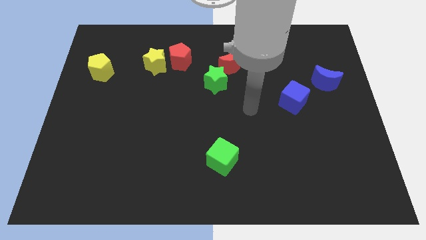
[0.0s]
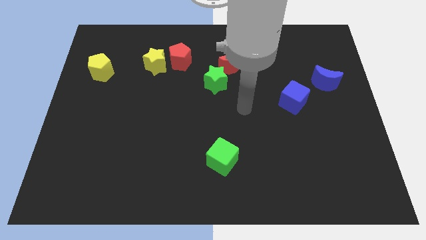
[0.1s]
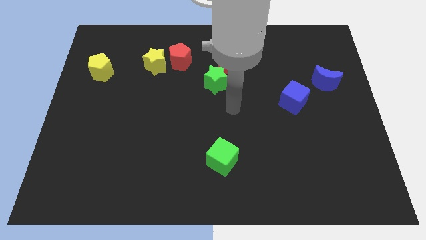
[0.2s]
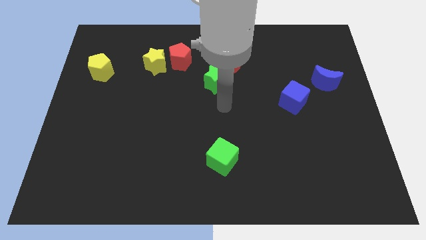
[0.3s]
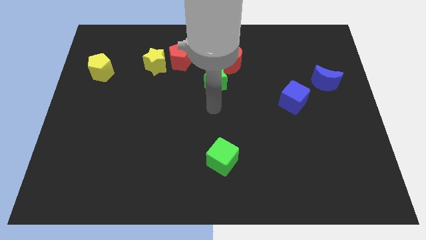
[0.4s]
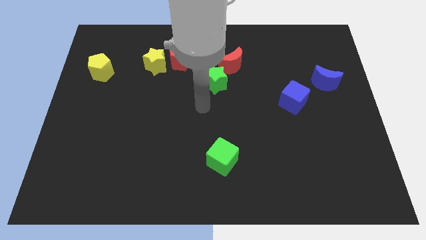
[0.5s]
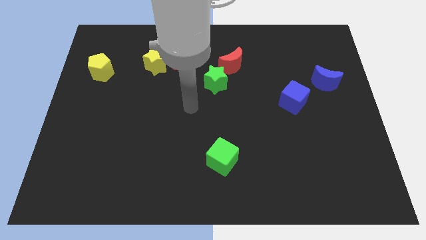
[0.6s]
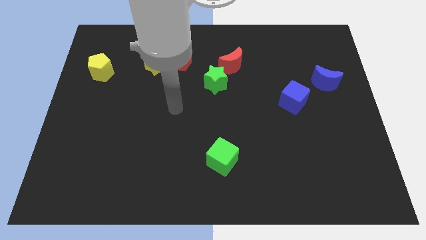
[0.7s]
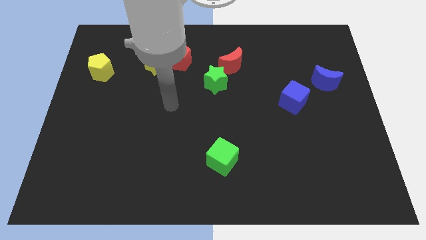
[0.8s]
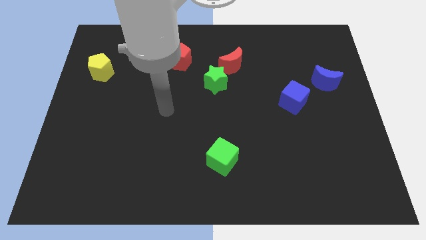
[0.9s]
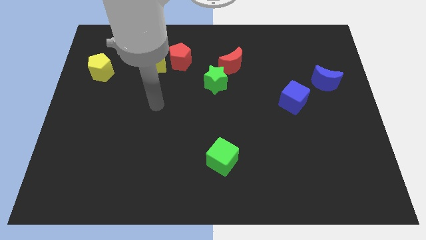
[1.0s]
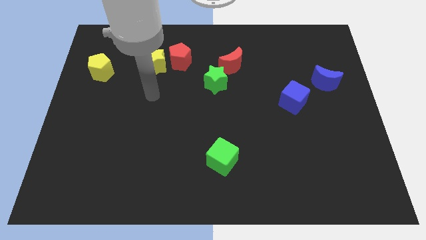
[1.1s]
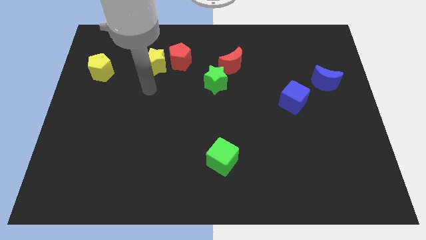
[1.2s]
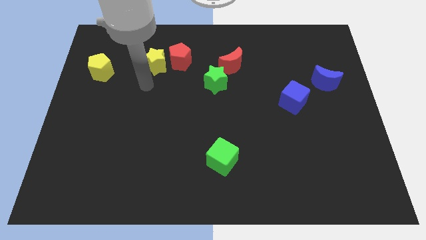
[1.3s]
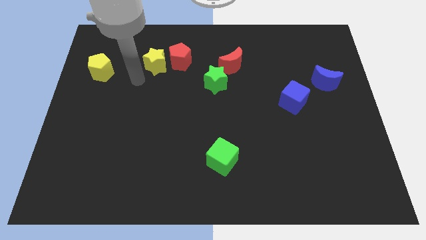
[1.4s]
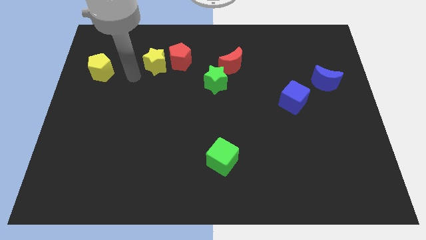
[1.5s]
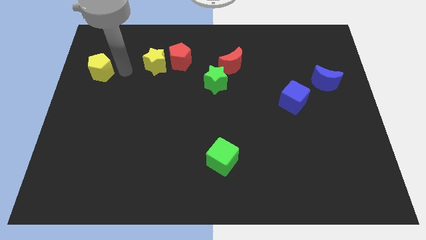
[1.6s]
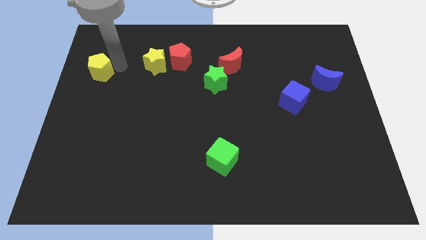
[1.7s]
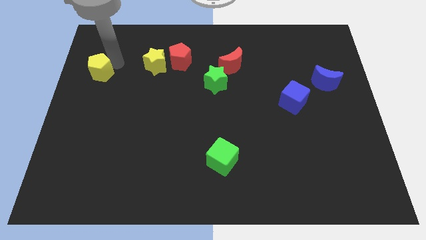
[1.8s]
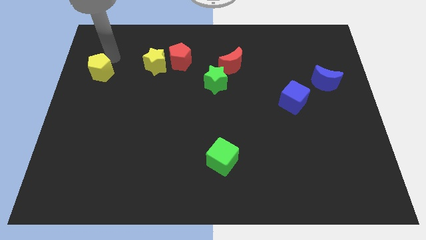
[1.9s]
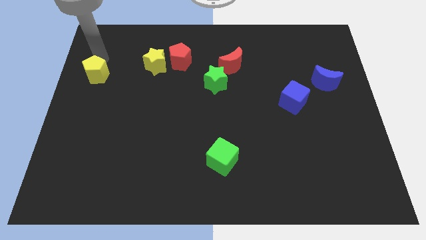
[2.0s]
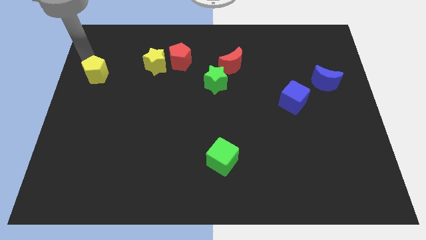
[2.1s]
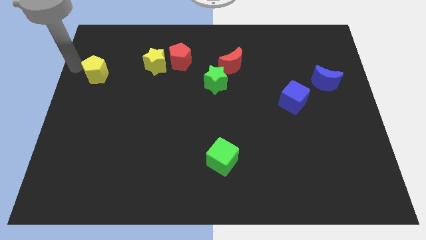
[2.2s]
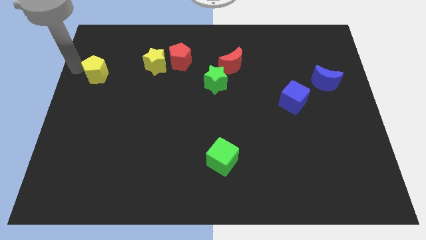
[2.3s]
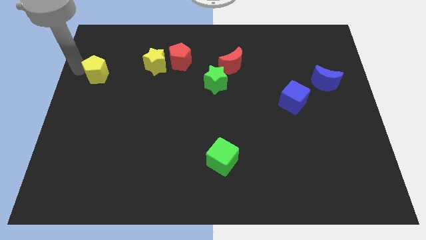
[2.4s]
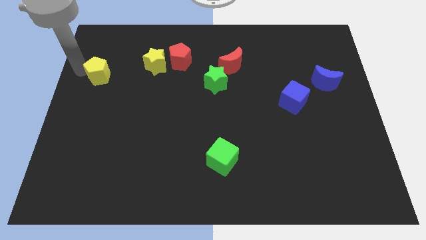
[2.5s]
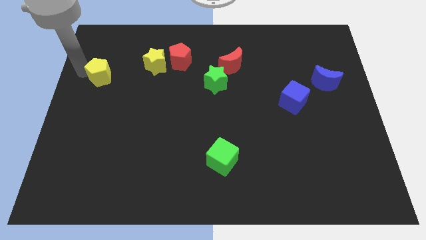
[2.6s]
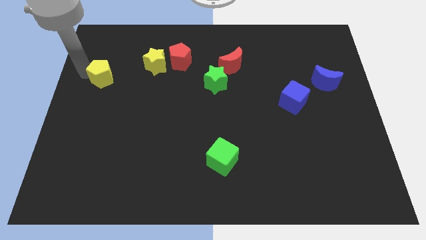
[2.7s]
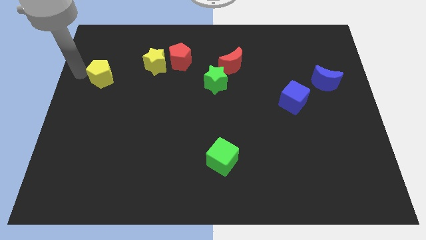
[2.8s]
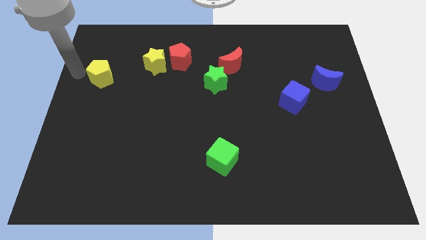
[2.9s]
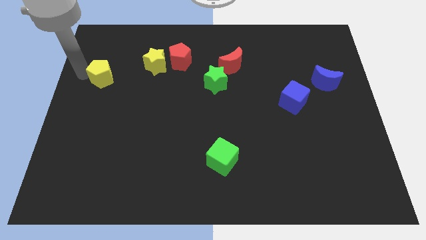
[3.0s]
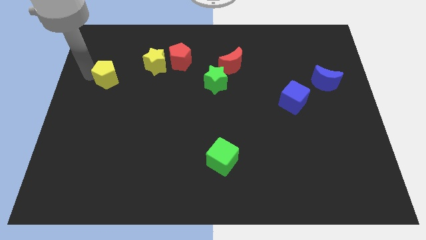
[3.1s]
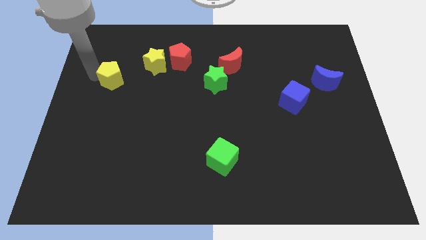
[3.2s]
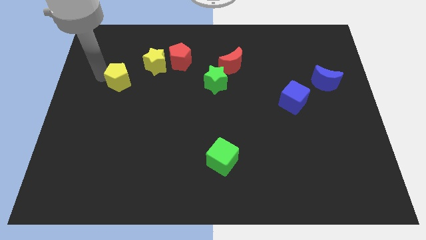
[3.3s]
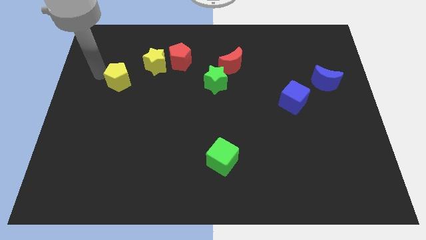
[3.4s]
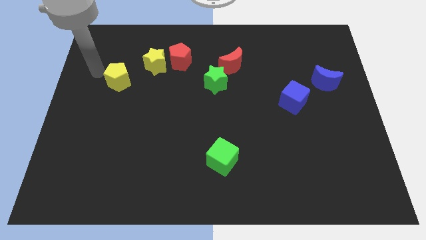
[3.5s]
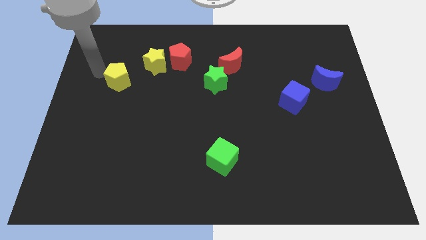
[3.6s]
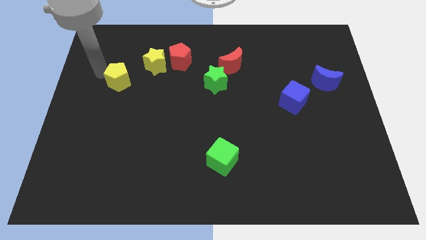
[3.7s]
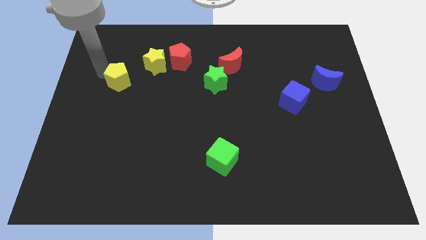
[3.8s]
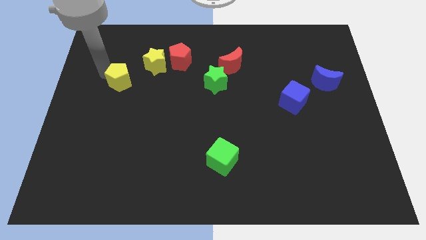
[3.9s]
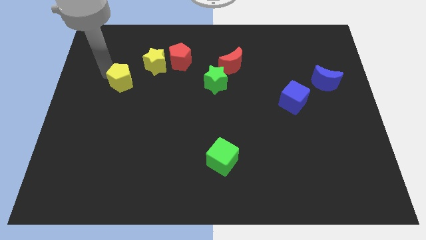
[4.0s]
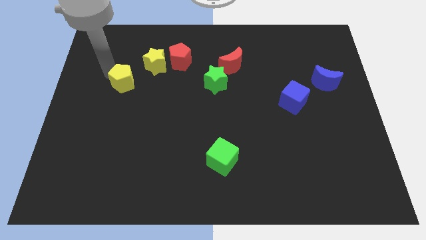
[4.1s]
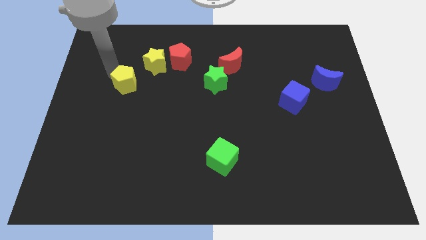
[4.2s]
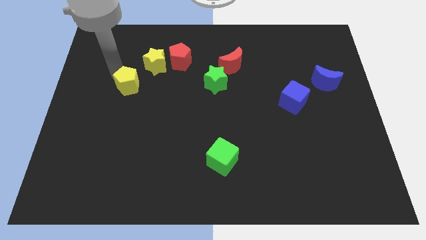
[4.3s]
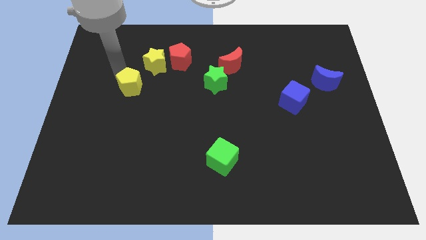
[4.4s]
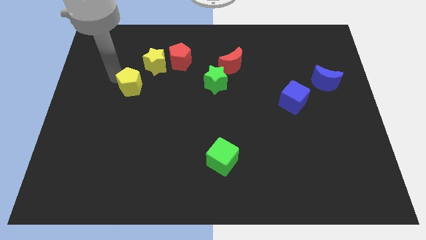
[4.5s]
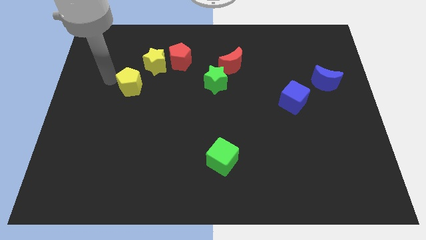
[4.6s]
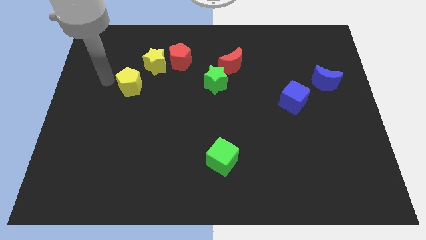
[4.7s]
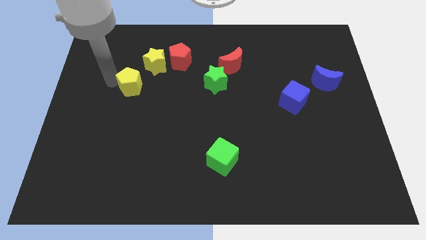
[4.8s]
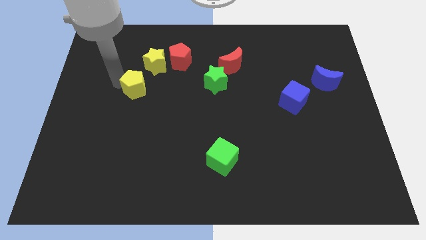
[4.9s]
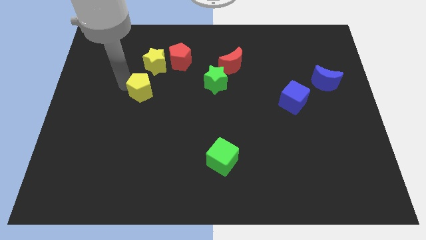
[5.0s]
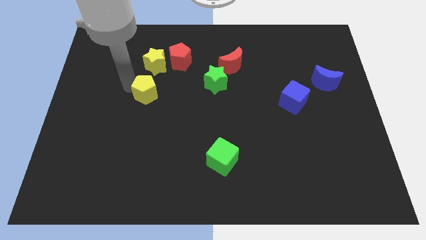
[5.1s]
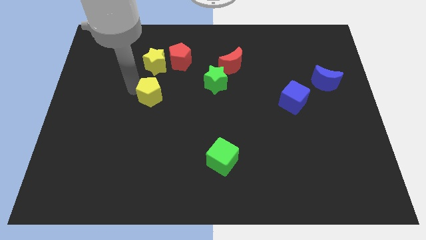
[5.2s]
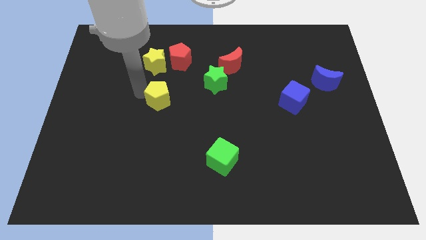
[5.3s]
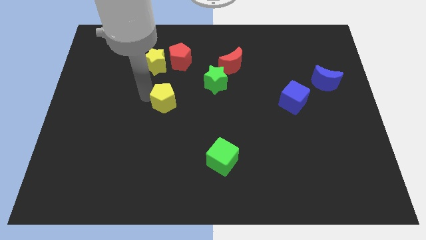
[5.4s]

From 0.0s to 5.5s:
put the yellow pentagon to the middle of the board

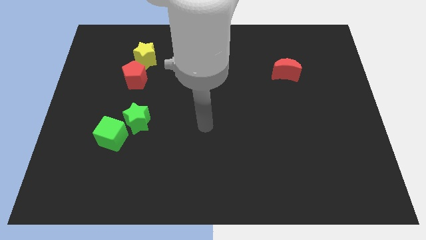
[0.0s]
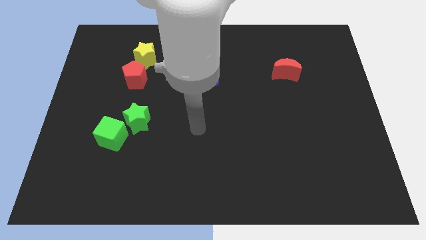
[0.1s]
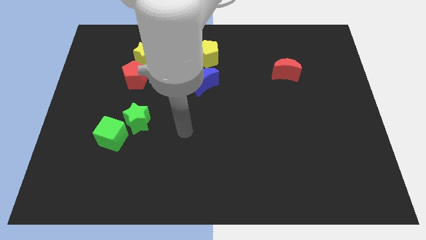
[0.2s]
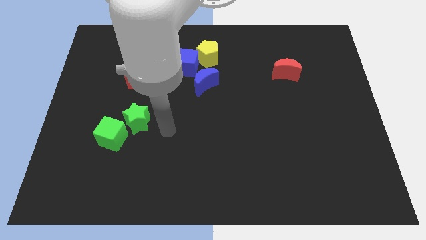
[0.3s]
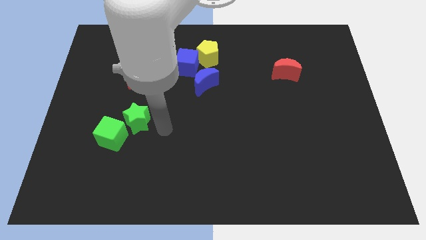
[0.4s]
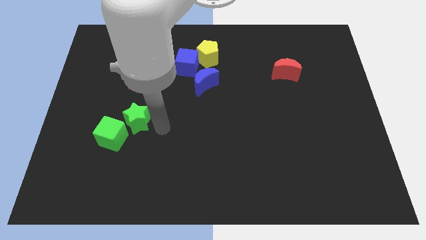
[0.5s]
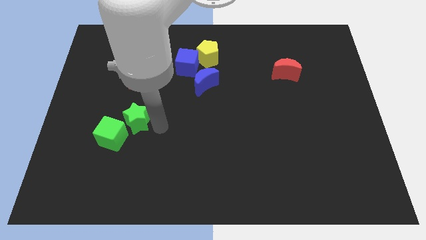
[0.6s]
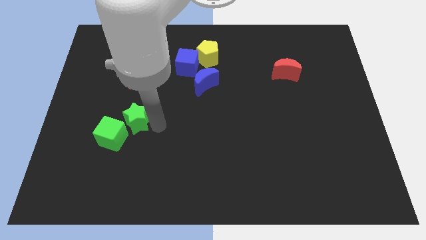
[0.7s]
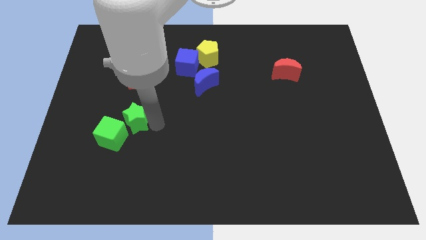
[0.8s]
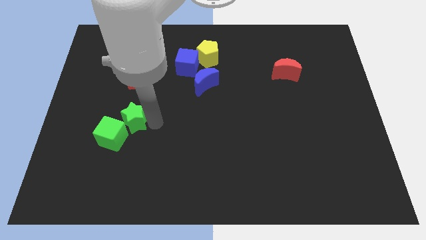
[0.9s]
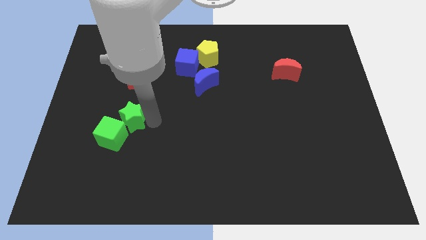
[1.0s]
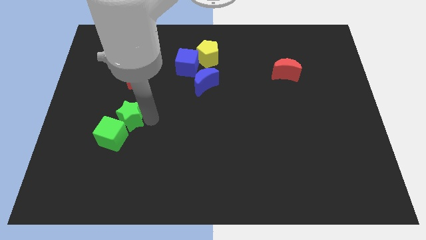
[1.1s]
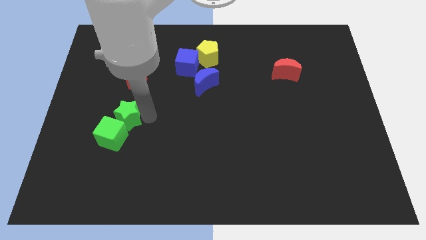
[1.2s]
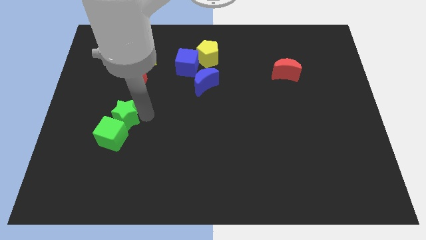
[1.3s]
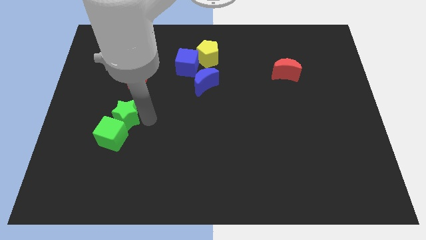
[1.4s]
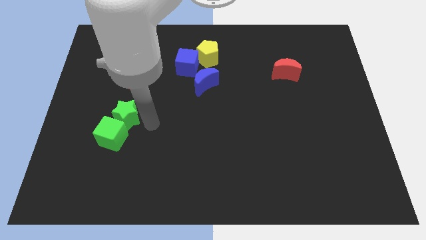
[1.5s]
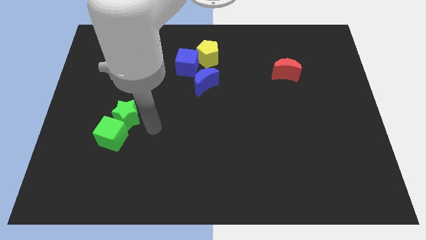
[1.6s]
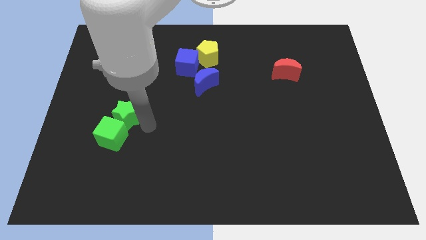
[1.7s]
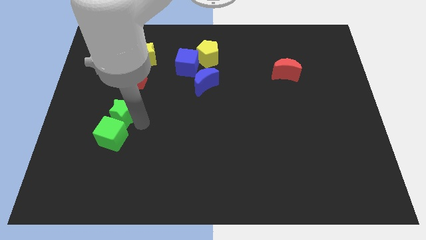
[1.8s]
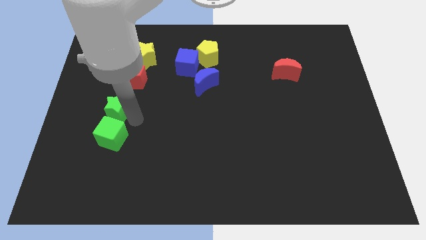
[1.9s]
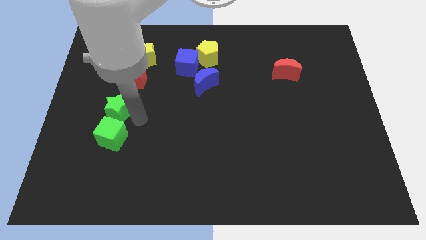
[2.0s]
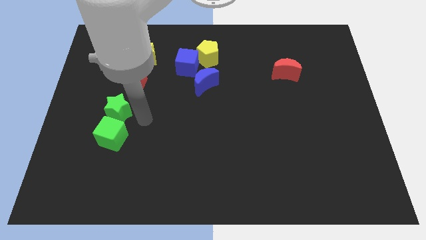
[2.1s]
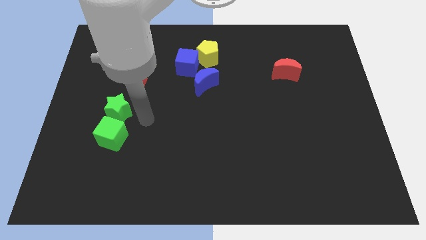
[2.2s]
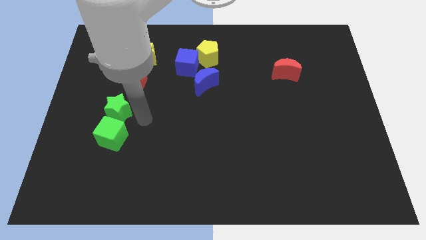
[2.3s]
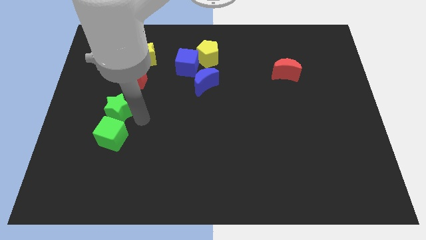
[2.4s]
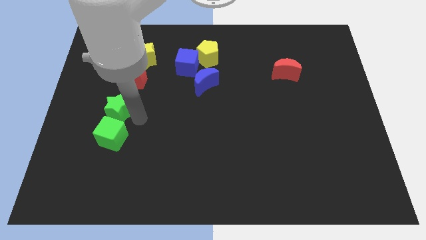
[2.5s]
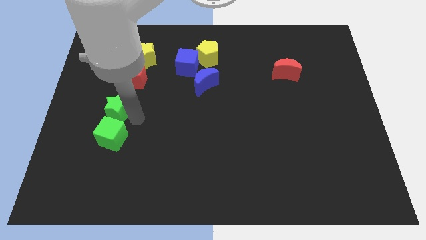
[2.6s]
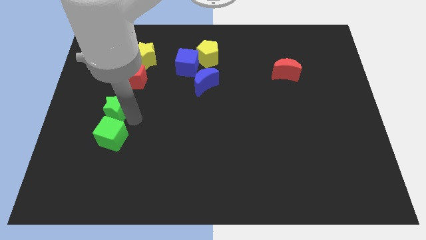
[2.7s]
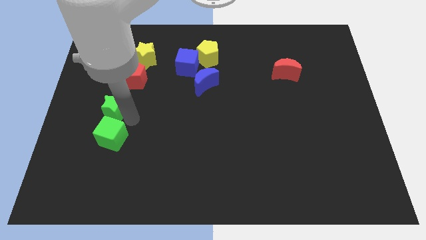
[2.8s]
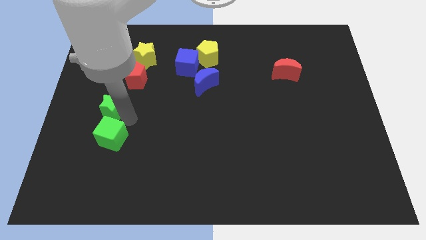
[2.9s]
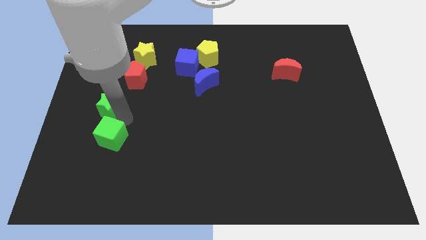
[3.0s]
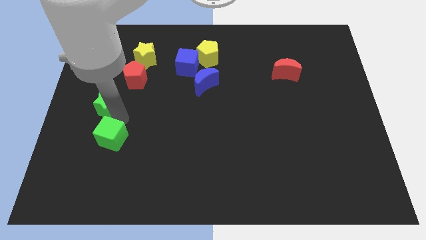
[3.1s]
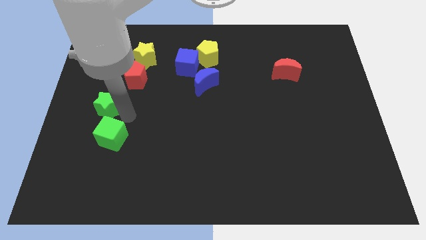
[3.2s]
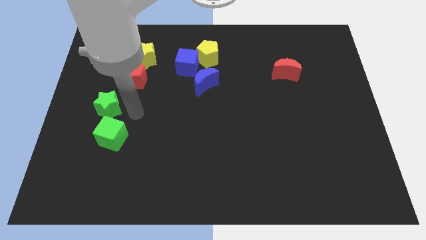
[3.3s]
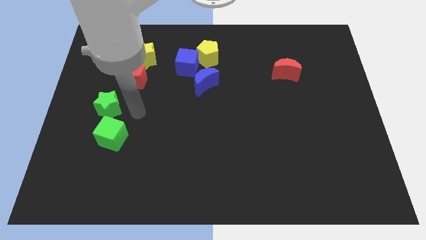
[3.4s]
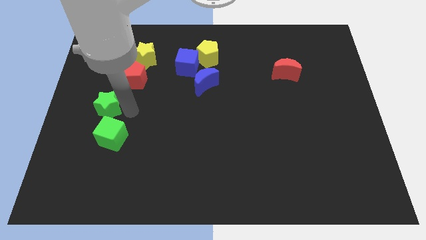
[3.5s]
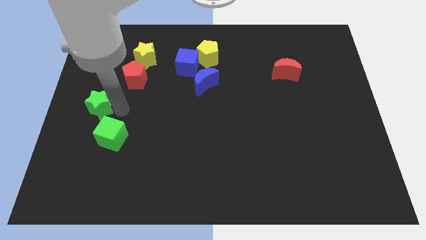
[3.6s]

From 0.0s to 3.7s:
slide the green star to the center left
